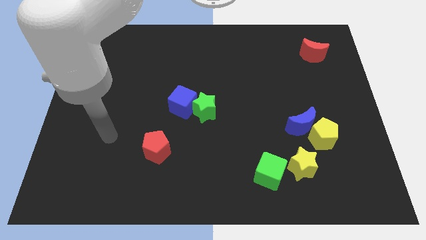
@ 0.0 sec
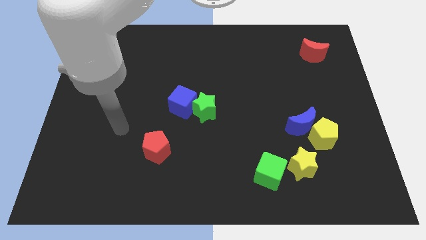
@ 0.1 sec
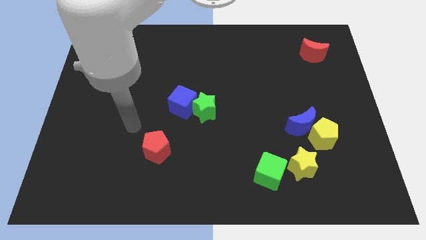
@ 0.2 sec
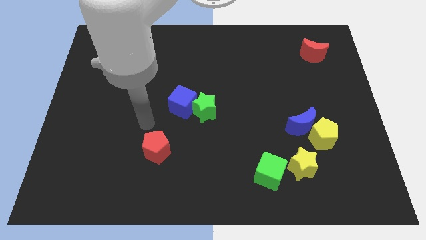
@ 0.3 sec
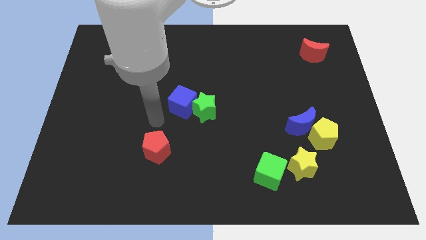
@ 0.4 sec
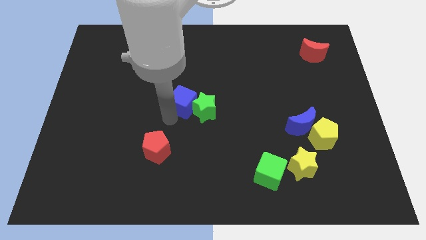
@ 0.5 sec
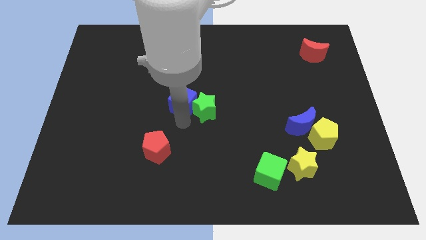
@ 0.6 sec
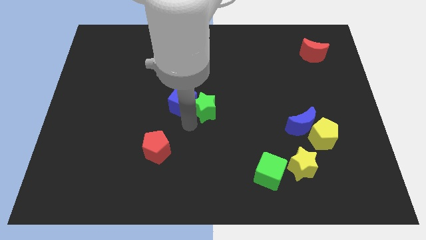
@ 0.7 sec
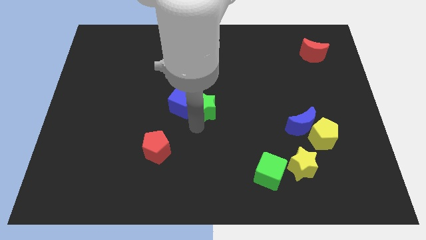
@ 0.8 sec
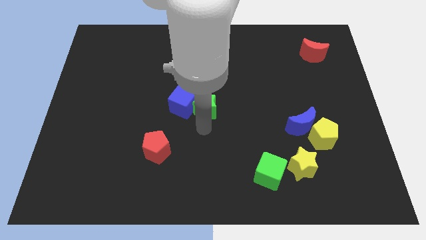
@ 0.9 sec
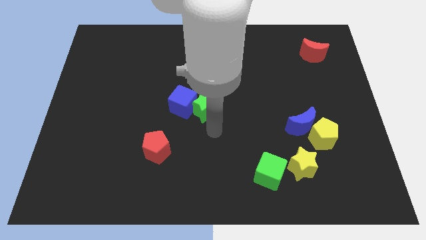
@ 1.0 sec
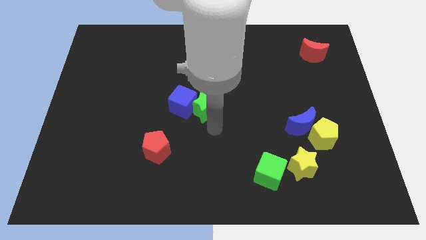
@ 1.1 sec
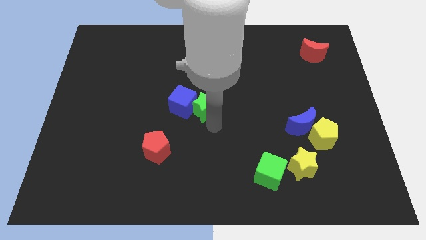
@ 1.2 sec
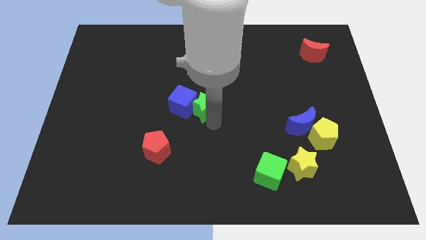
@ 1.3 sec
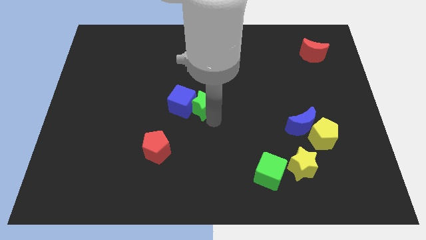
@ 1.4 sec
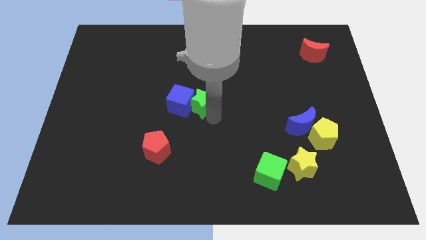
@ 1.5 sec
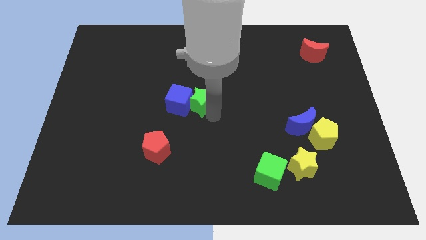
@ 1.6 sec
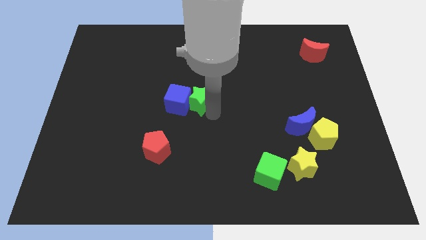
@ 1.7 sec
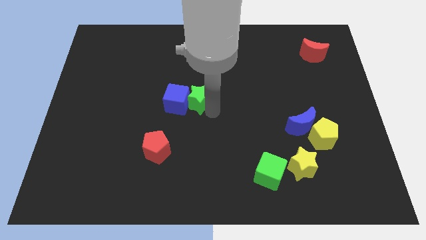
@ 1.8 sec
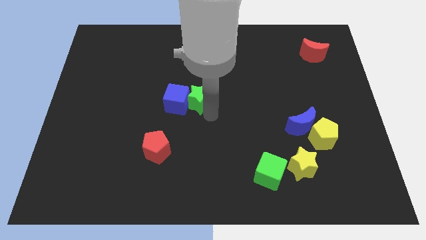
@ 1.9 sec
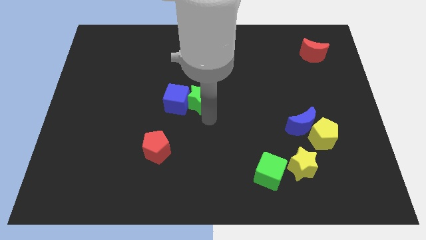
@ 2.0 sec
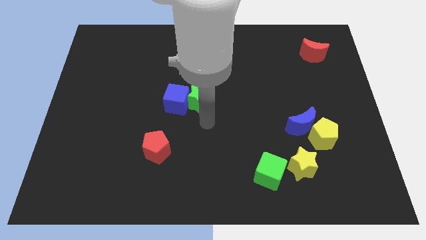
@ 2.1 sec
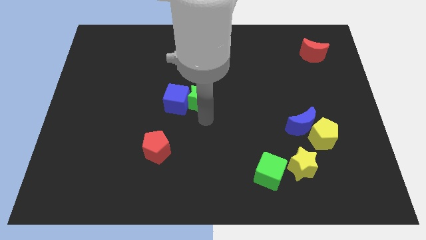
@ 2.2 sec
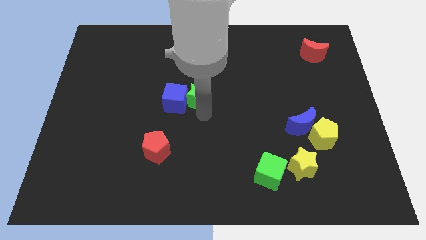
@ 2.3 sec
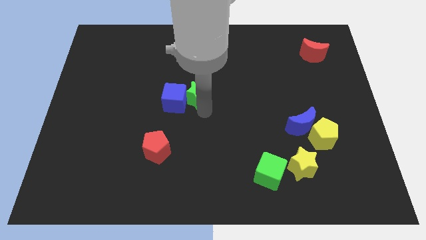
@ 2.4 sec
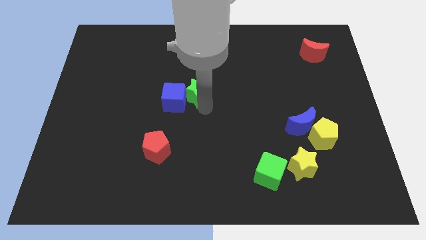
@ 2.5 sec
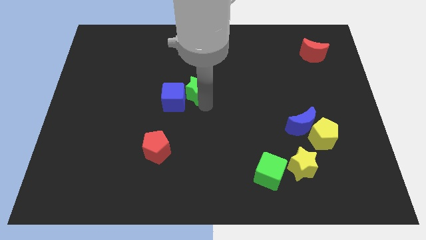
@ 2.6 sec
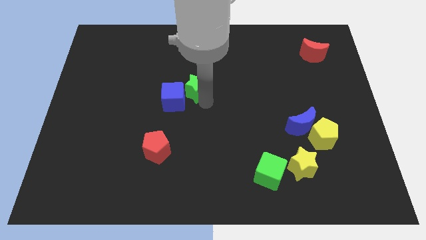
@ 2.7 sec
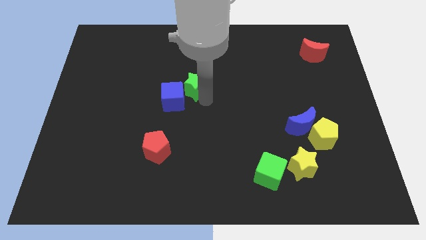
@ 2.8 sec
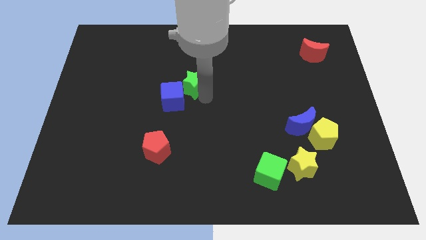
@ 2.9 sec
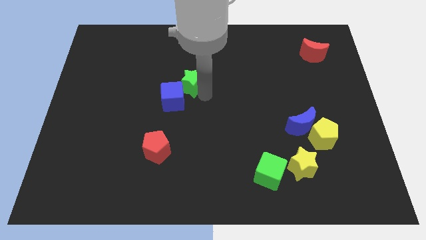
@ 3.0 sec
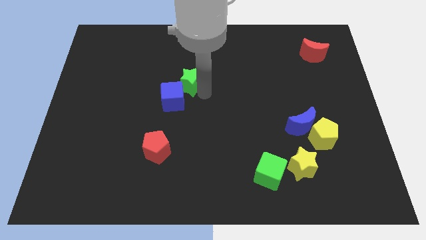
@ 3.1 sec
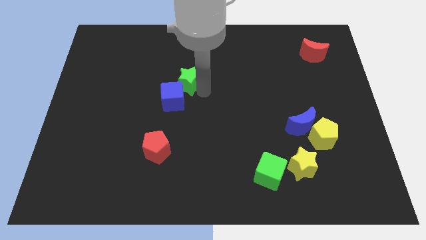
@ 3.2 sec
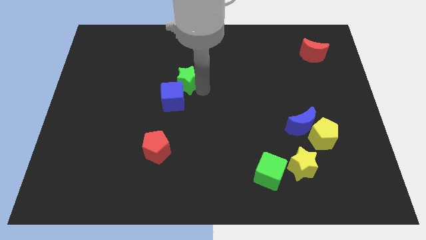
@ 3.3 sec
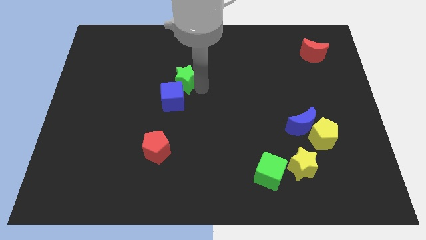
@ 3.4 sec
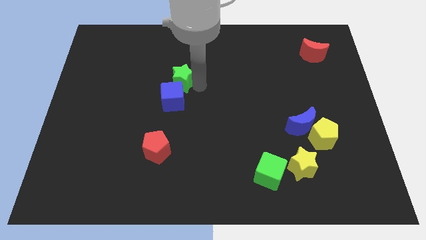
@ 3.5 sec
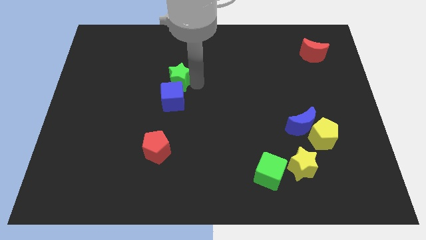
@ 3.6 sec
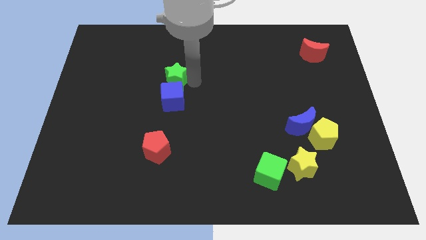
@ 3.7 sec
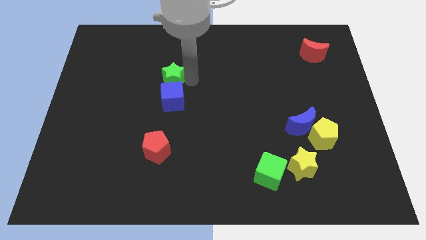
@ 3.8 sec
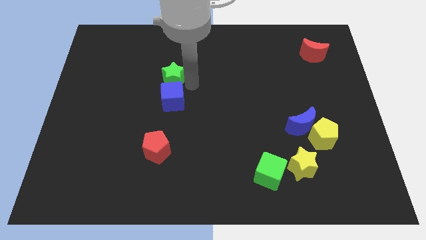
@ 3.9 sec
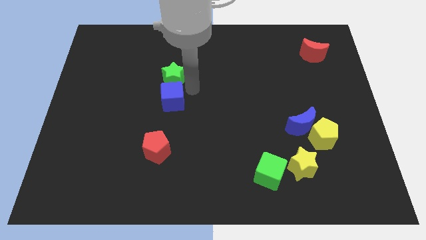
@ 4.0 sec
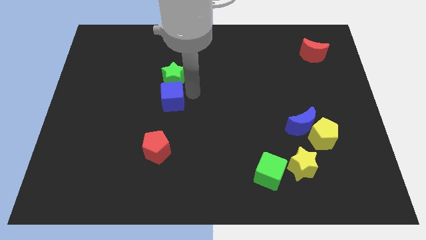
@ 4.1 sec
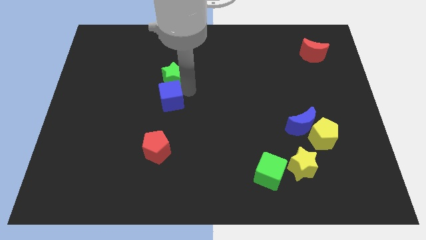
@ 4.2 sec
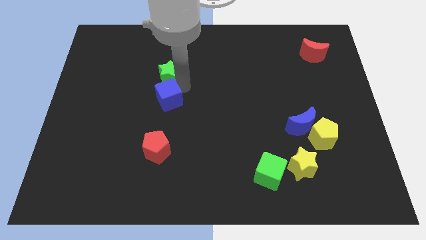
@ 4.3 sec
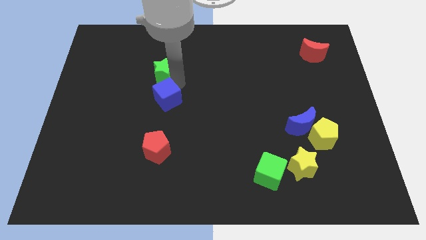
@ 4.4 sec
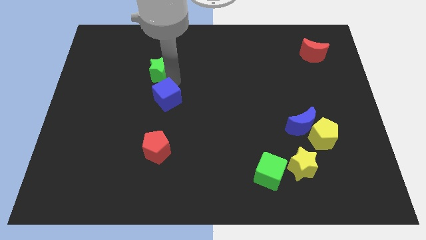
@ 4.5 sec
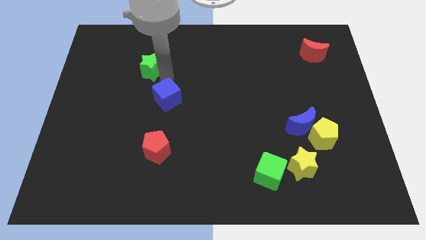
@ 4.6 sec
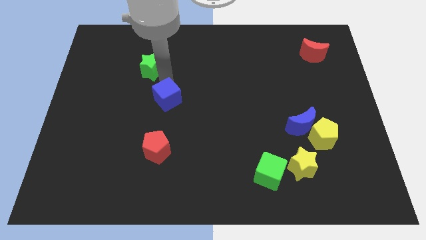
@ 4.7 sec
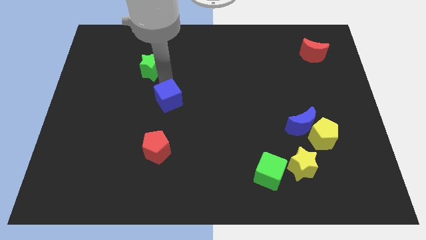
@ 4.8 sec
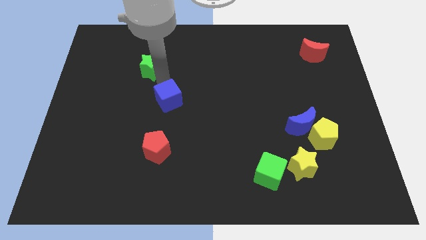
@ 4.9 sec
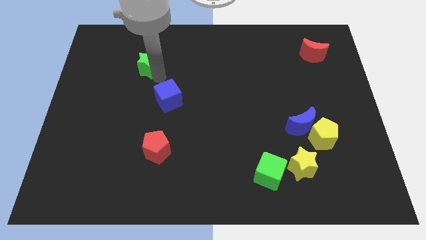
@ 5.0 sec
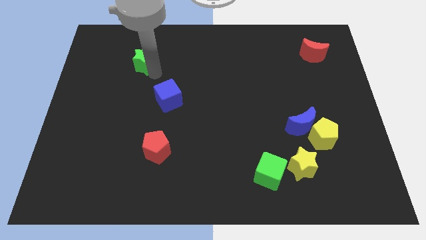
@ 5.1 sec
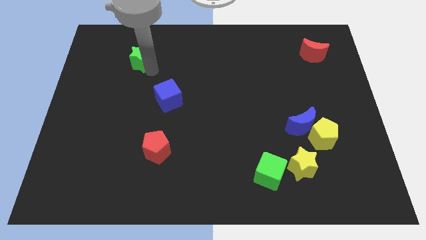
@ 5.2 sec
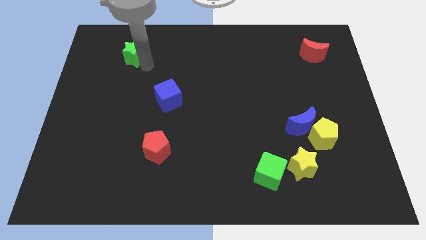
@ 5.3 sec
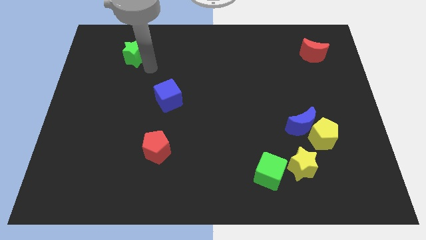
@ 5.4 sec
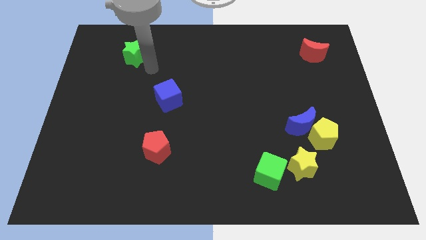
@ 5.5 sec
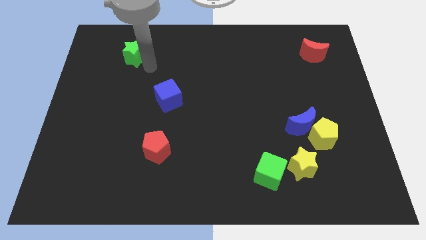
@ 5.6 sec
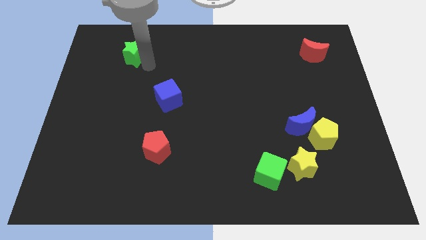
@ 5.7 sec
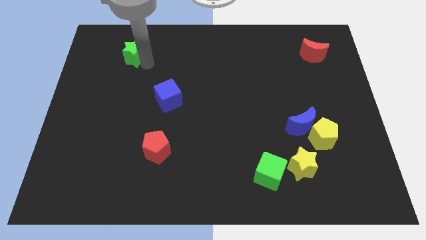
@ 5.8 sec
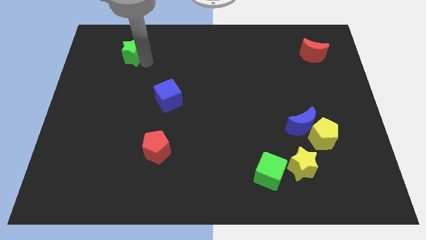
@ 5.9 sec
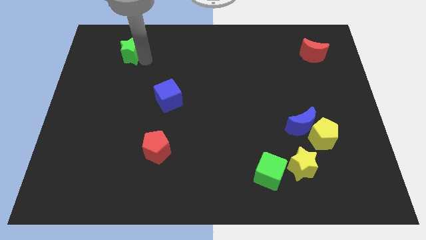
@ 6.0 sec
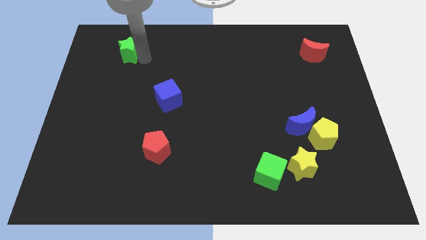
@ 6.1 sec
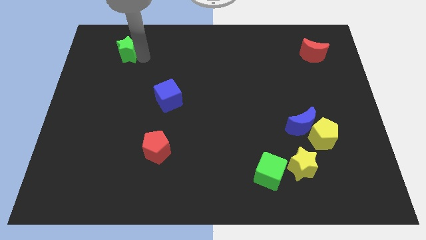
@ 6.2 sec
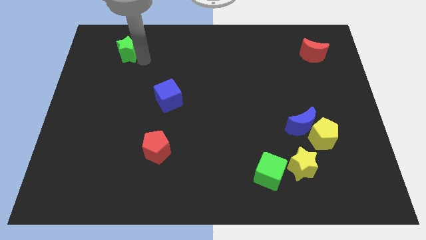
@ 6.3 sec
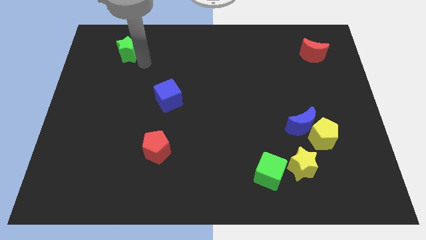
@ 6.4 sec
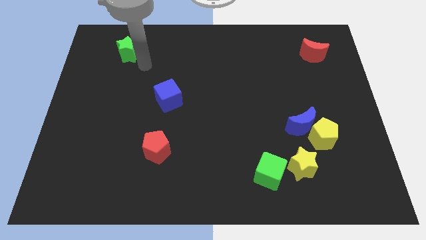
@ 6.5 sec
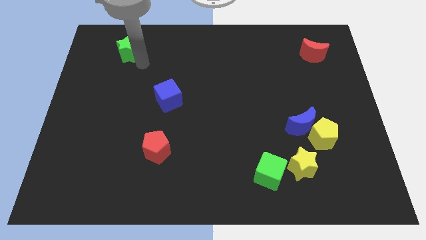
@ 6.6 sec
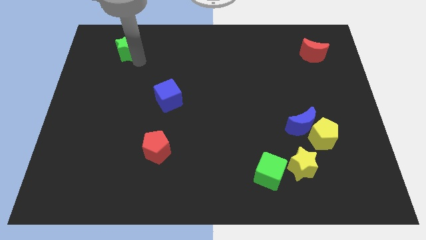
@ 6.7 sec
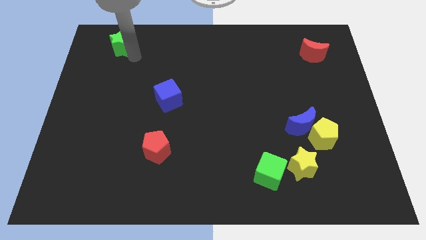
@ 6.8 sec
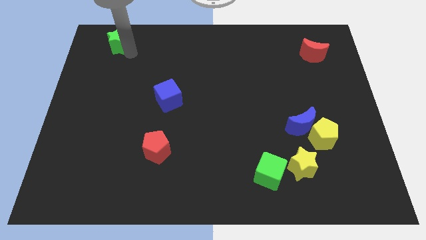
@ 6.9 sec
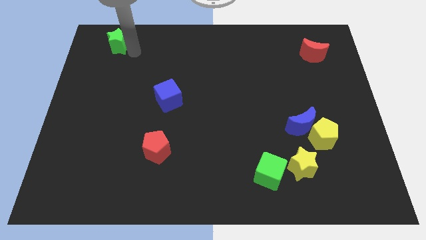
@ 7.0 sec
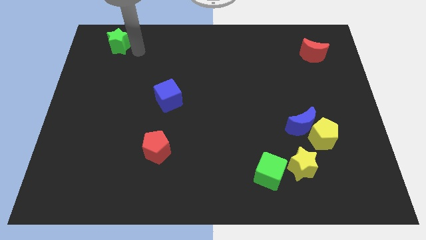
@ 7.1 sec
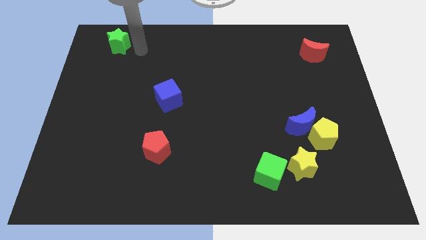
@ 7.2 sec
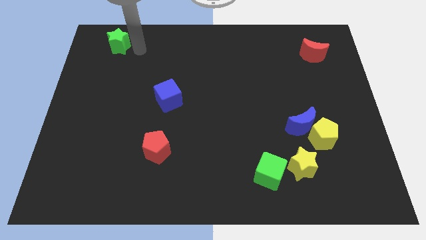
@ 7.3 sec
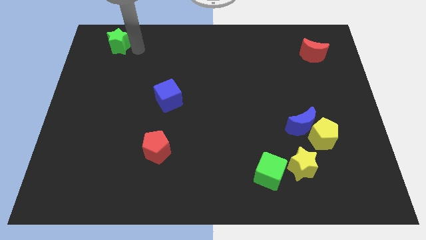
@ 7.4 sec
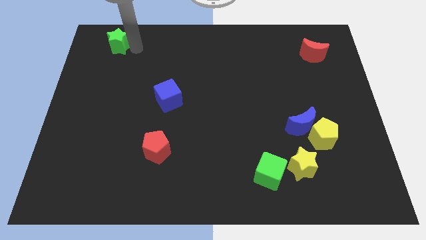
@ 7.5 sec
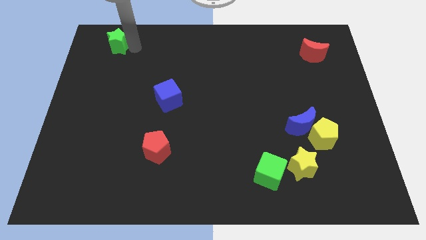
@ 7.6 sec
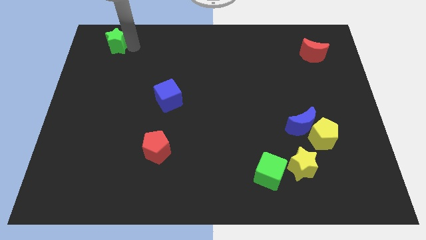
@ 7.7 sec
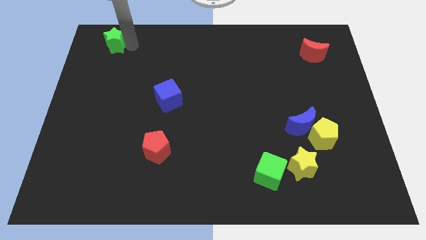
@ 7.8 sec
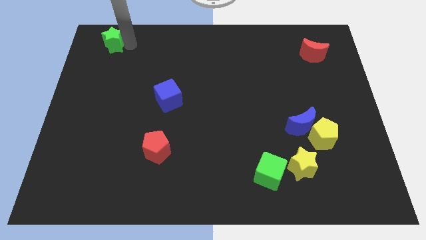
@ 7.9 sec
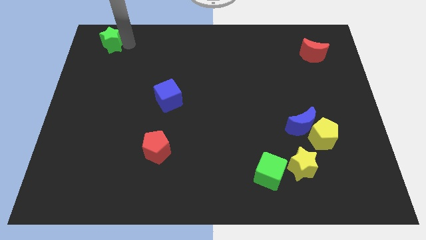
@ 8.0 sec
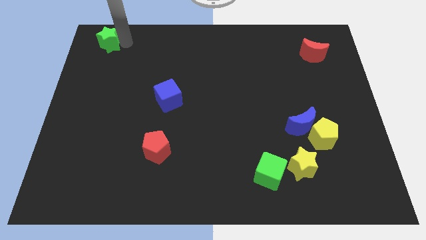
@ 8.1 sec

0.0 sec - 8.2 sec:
move the green star to the top left
